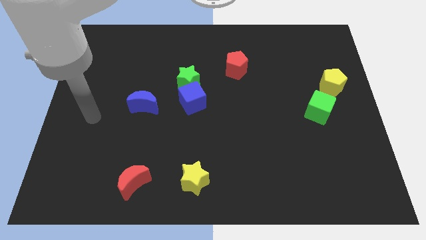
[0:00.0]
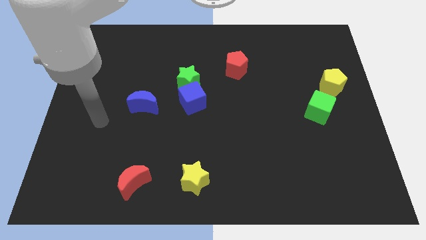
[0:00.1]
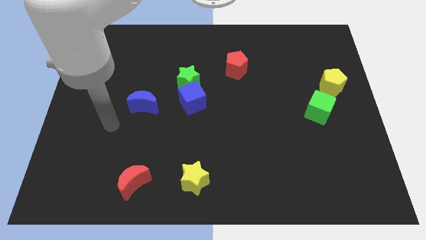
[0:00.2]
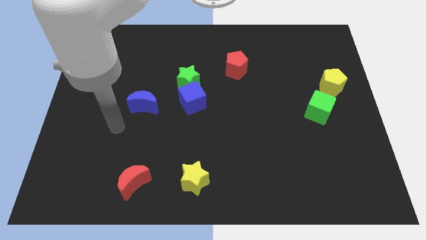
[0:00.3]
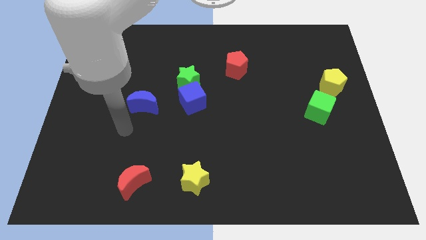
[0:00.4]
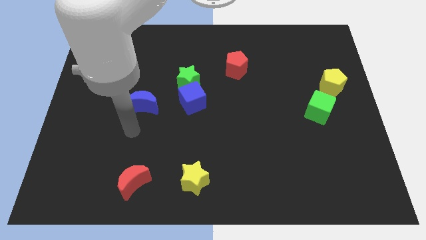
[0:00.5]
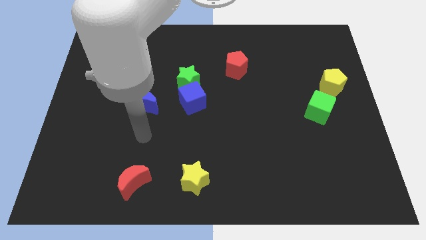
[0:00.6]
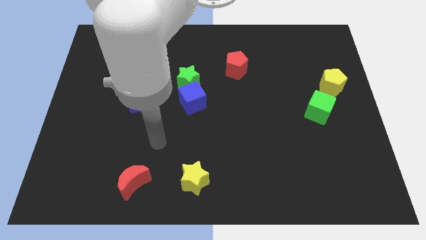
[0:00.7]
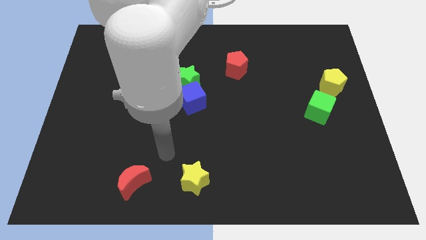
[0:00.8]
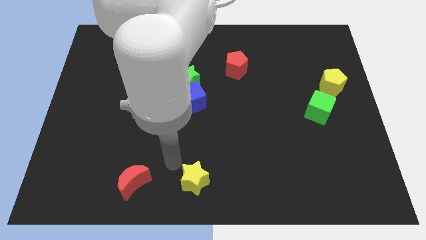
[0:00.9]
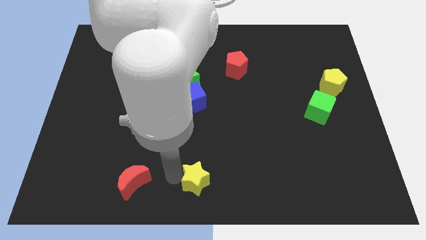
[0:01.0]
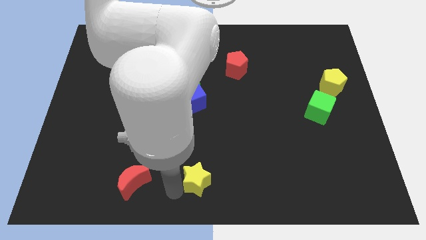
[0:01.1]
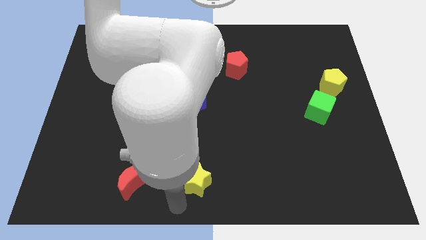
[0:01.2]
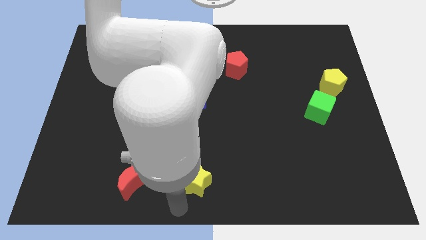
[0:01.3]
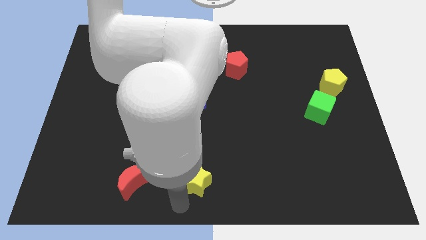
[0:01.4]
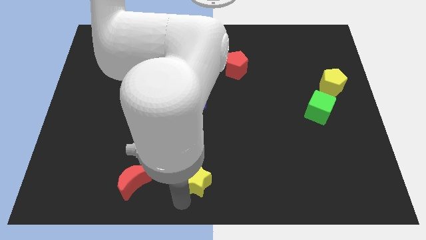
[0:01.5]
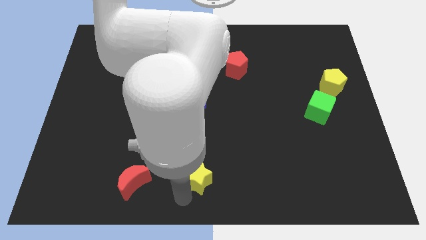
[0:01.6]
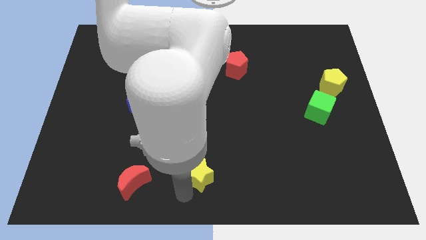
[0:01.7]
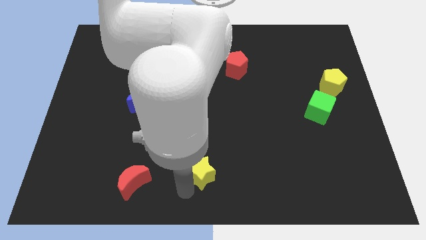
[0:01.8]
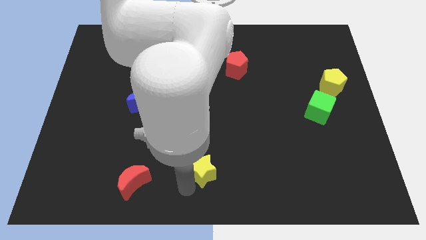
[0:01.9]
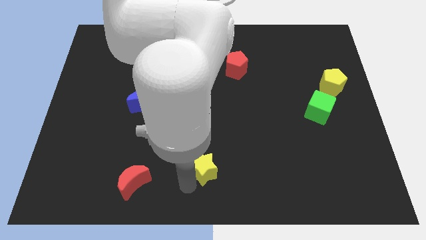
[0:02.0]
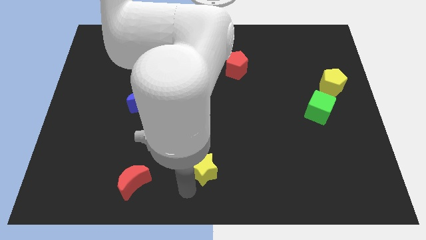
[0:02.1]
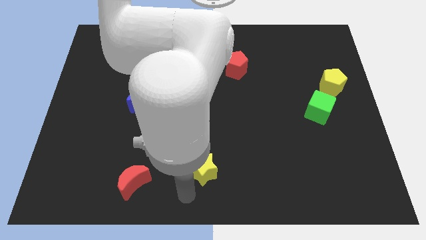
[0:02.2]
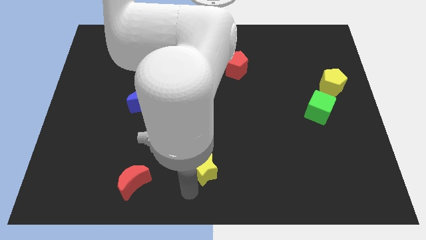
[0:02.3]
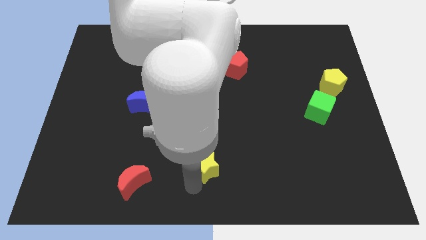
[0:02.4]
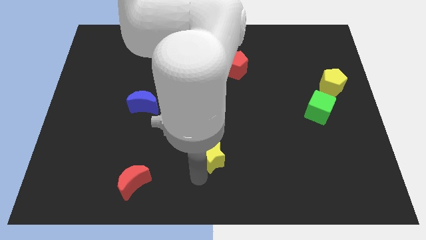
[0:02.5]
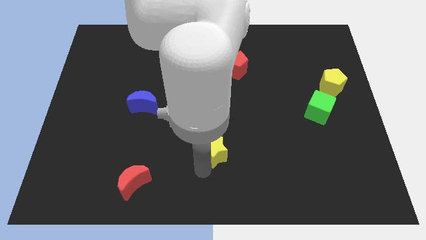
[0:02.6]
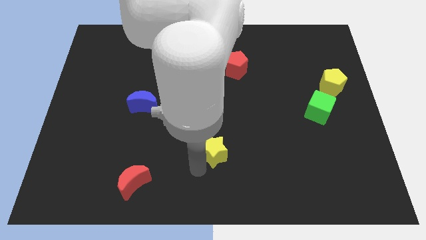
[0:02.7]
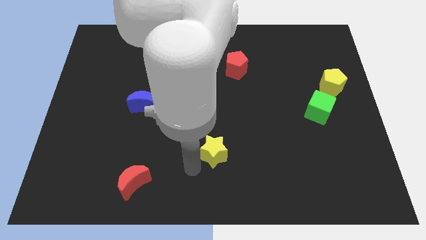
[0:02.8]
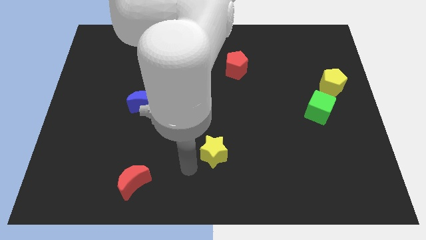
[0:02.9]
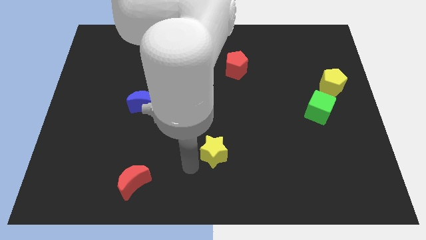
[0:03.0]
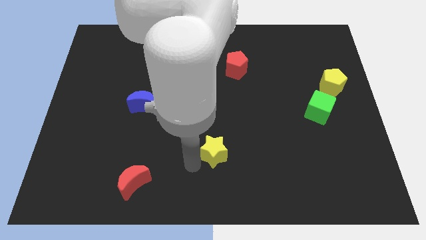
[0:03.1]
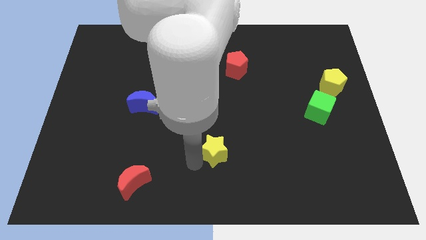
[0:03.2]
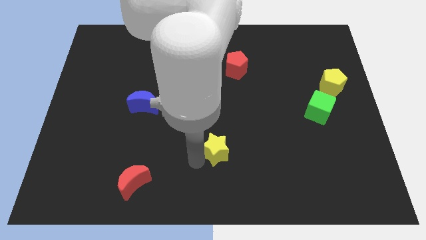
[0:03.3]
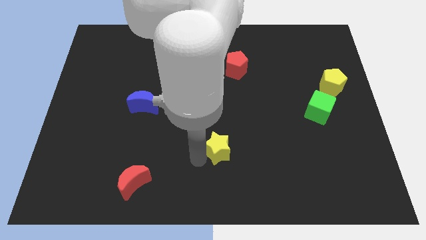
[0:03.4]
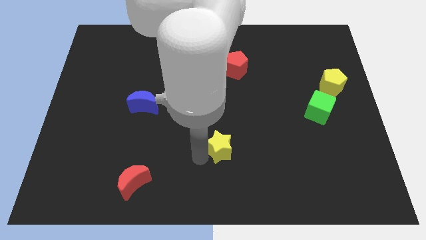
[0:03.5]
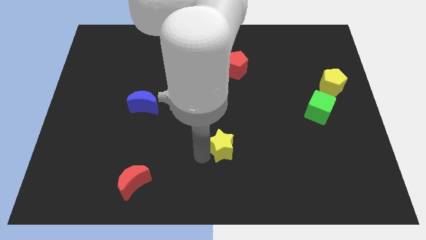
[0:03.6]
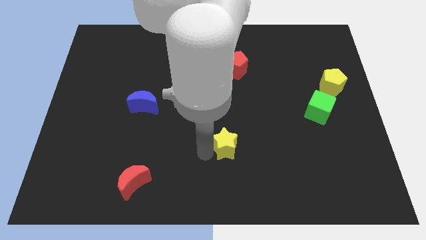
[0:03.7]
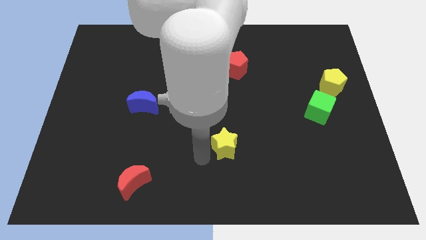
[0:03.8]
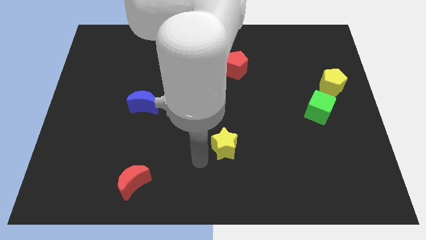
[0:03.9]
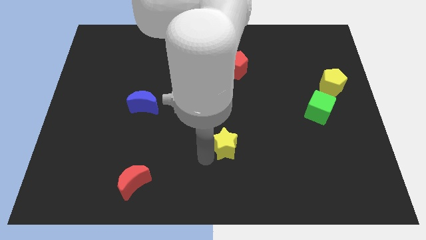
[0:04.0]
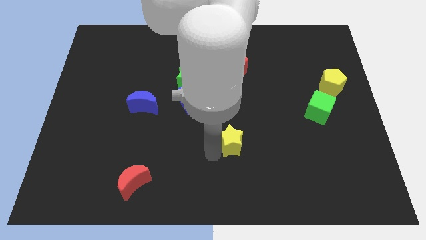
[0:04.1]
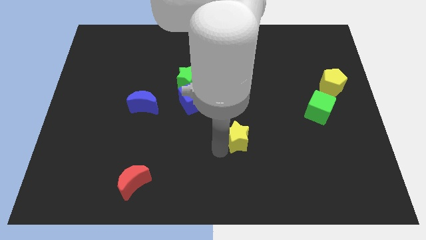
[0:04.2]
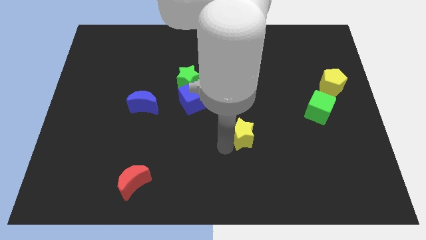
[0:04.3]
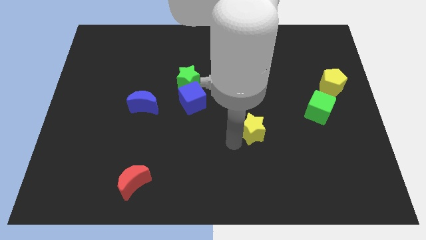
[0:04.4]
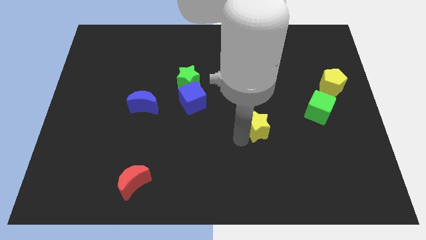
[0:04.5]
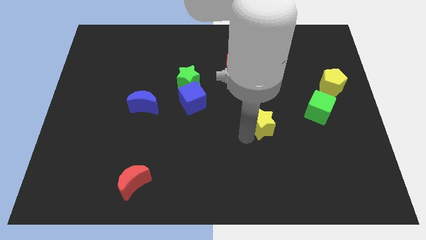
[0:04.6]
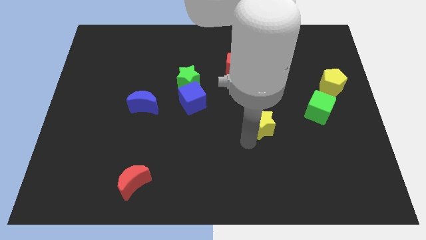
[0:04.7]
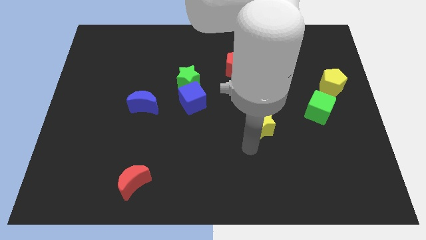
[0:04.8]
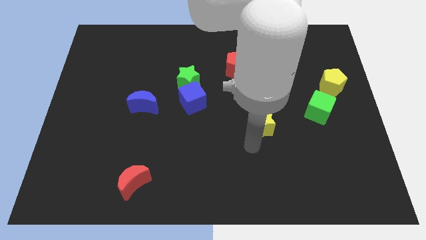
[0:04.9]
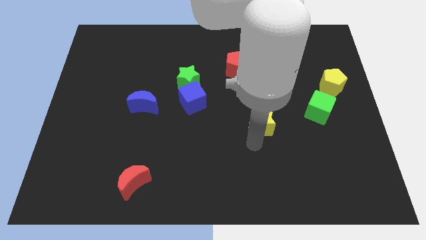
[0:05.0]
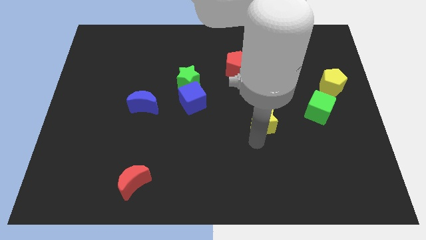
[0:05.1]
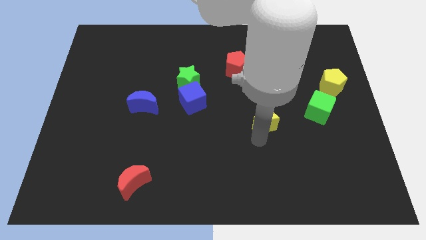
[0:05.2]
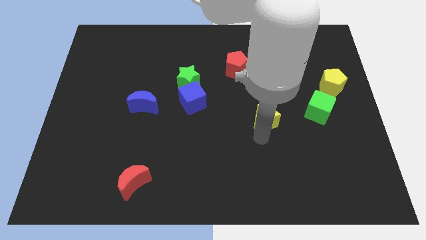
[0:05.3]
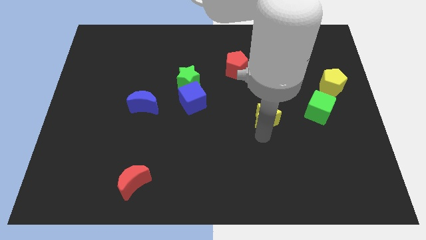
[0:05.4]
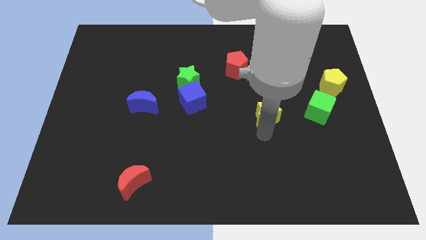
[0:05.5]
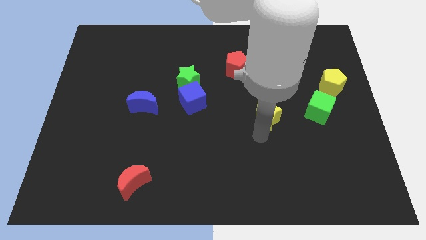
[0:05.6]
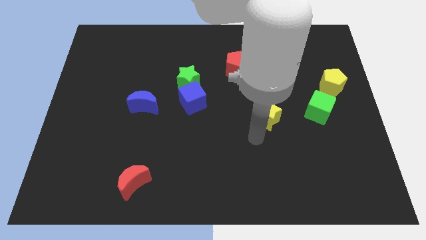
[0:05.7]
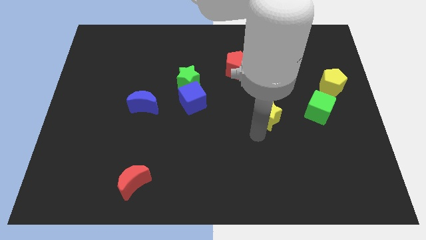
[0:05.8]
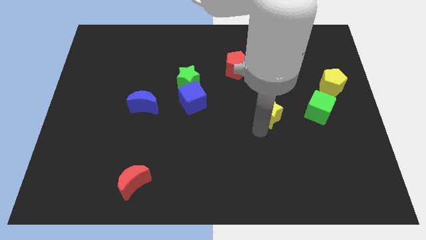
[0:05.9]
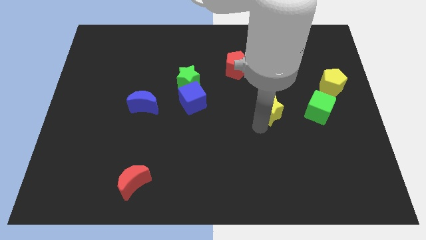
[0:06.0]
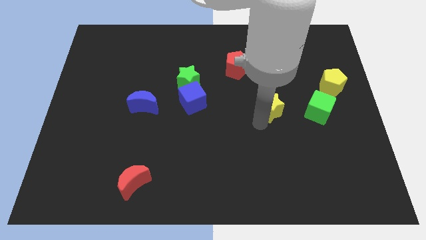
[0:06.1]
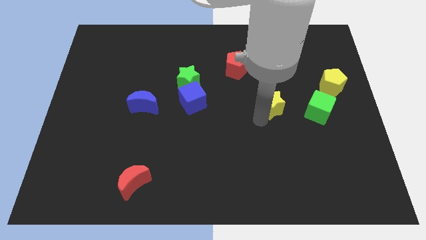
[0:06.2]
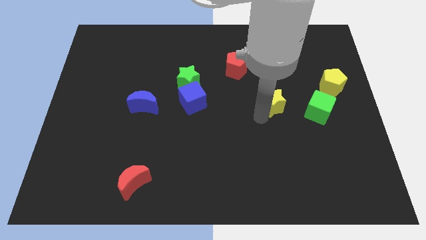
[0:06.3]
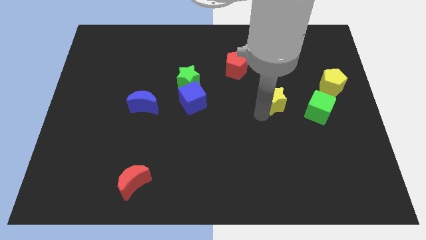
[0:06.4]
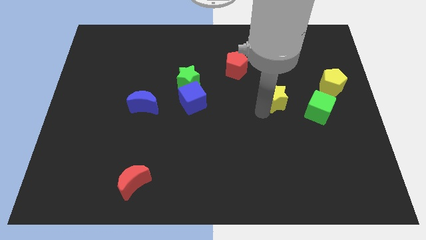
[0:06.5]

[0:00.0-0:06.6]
put the yellow star to the top left side of the green cube

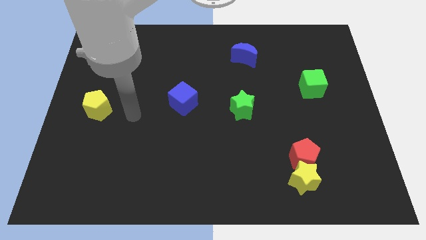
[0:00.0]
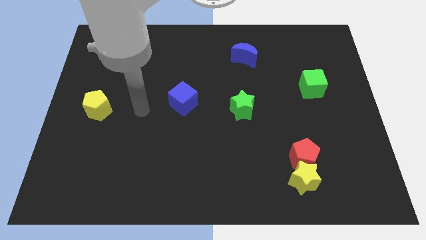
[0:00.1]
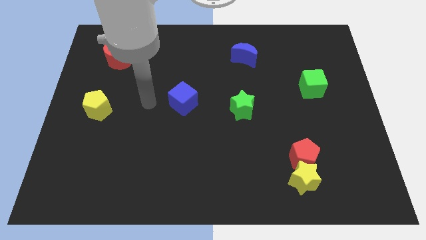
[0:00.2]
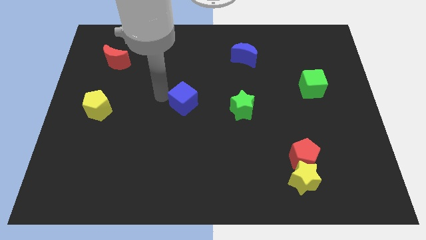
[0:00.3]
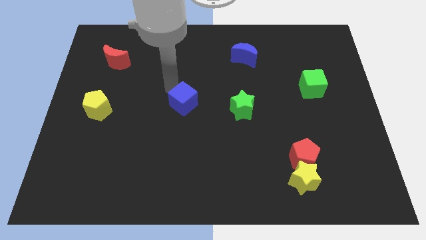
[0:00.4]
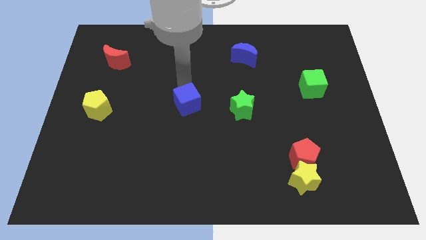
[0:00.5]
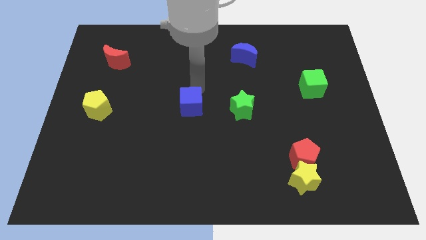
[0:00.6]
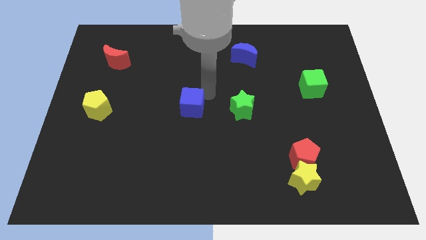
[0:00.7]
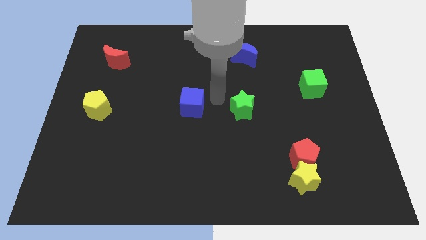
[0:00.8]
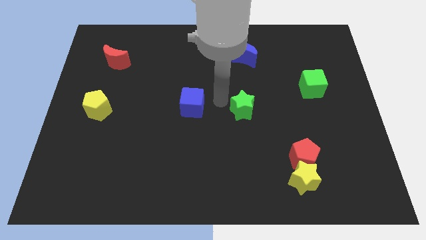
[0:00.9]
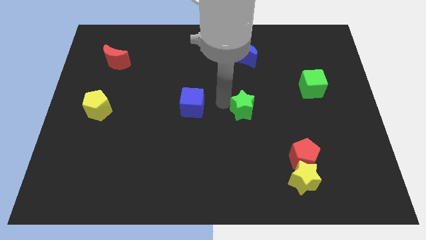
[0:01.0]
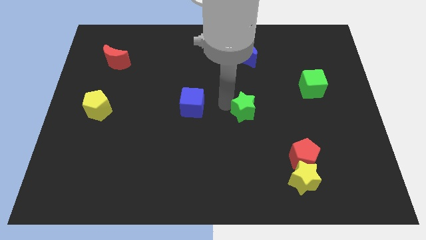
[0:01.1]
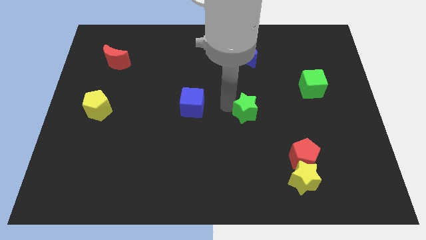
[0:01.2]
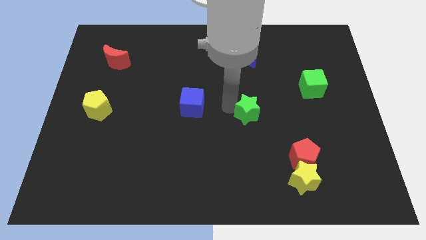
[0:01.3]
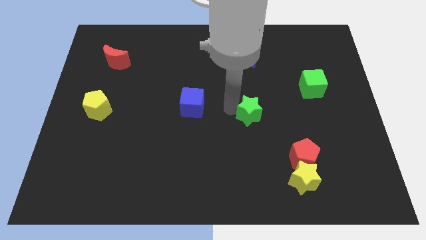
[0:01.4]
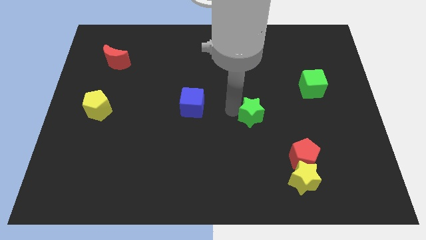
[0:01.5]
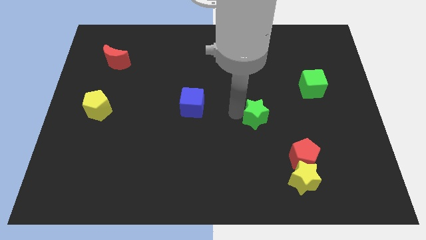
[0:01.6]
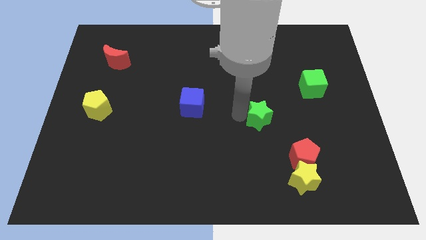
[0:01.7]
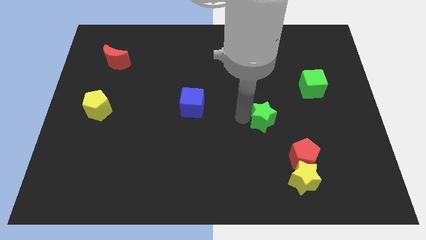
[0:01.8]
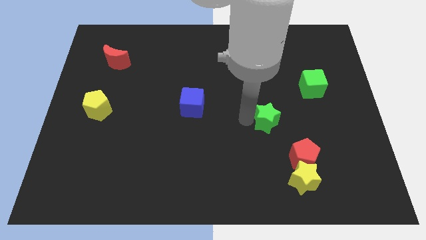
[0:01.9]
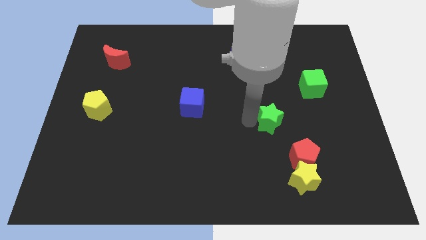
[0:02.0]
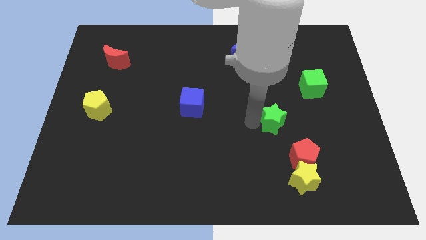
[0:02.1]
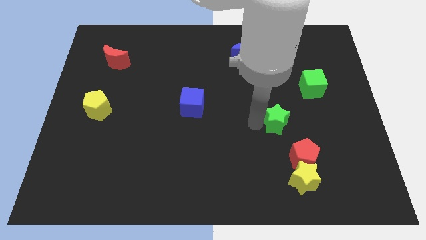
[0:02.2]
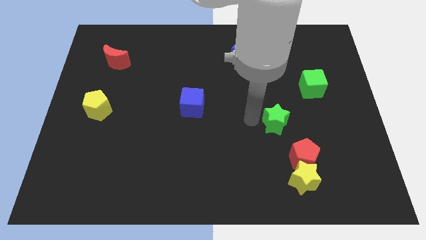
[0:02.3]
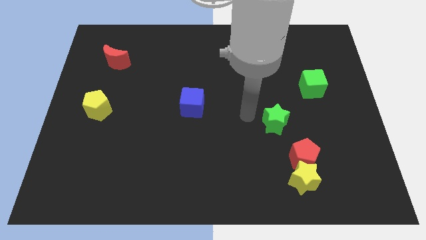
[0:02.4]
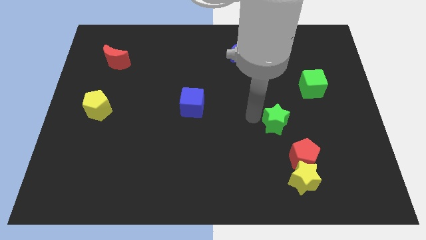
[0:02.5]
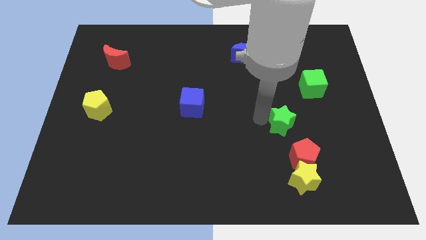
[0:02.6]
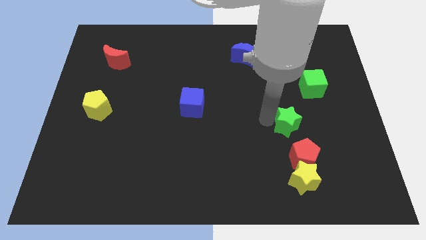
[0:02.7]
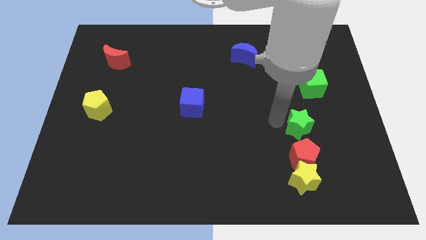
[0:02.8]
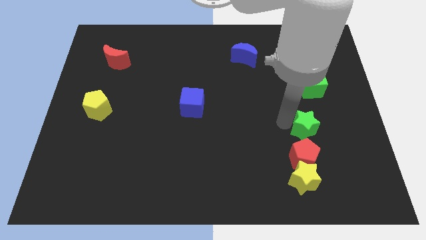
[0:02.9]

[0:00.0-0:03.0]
move the green star diagonally up and to the right of the red pentagon
